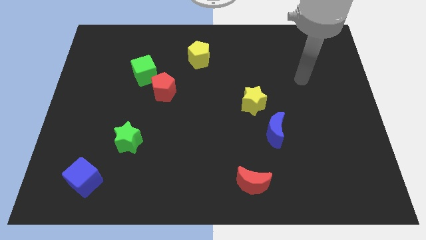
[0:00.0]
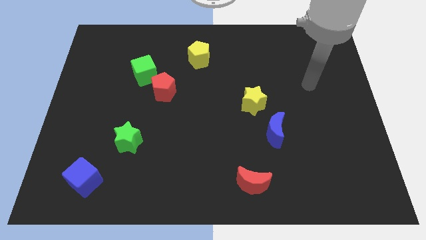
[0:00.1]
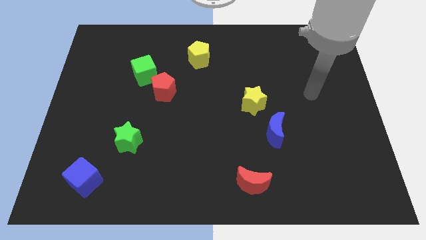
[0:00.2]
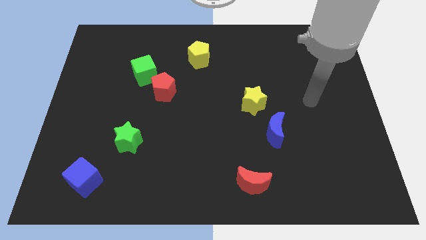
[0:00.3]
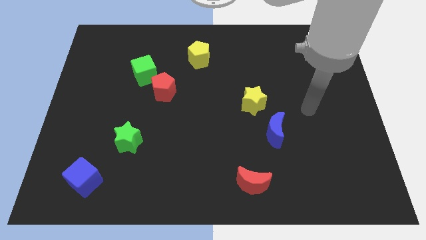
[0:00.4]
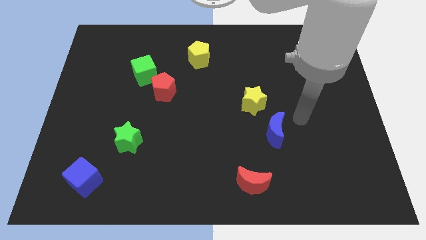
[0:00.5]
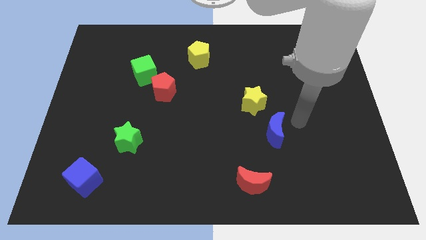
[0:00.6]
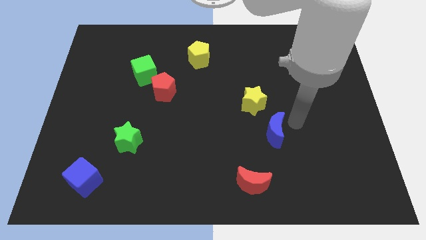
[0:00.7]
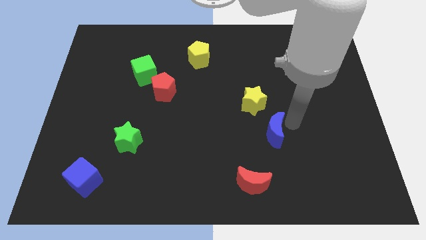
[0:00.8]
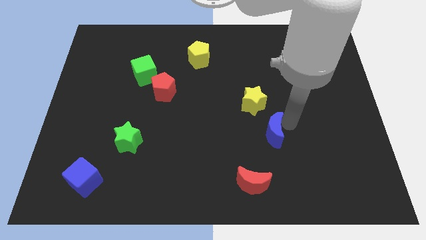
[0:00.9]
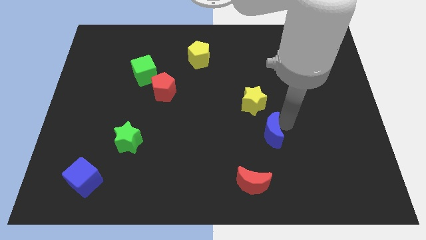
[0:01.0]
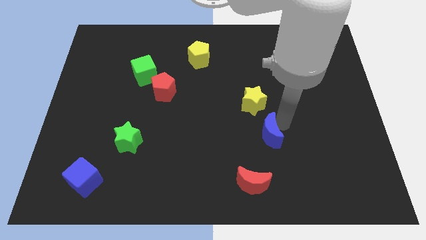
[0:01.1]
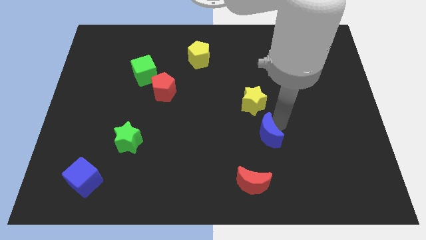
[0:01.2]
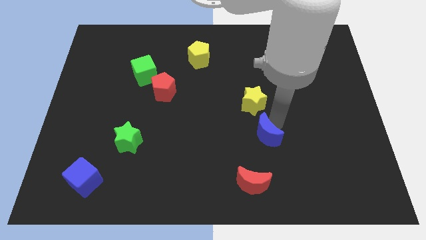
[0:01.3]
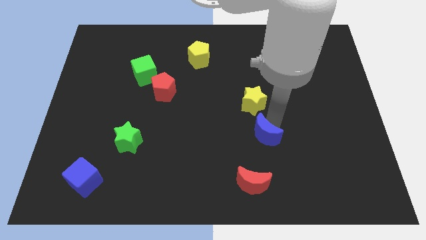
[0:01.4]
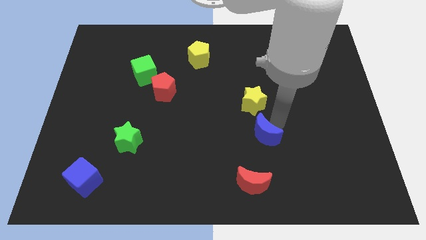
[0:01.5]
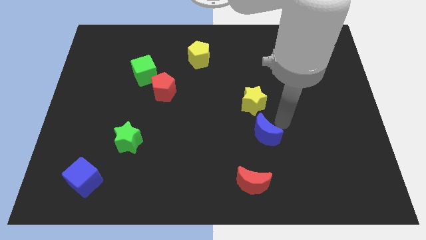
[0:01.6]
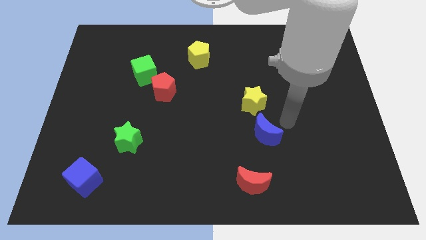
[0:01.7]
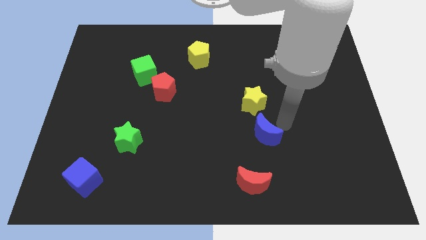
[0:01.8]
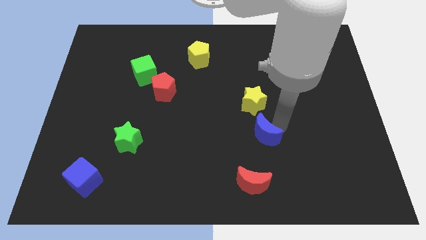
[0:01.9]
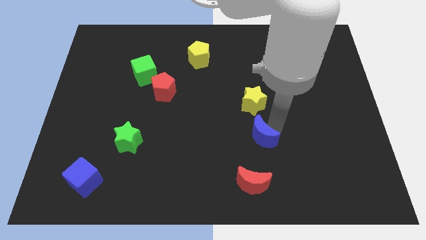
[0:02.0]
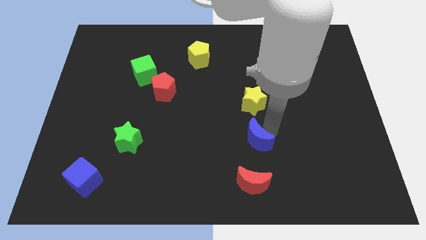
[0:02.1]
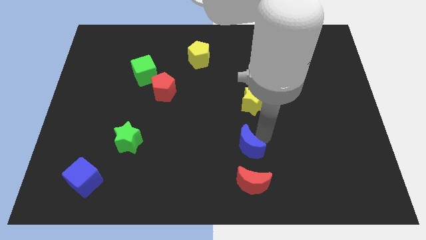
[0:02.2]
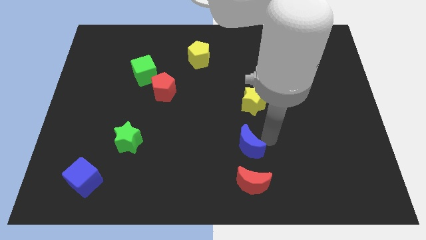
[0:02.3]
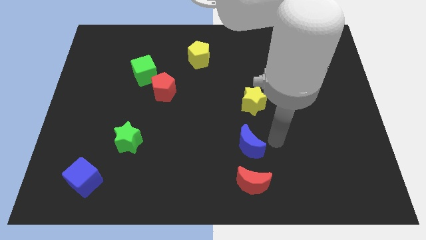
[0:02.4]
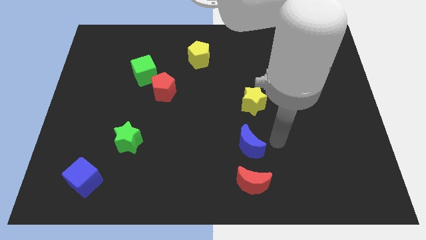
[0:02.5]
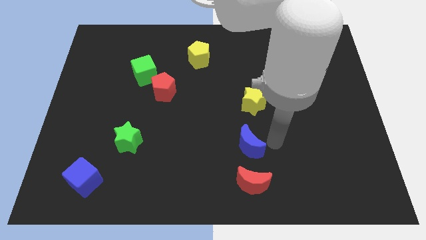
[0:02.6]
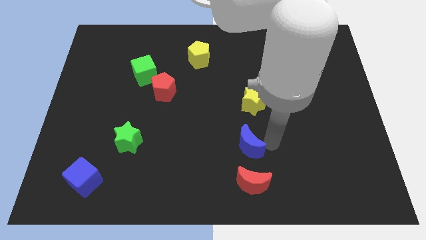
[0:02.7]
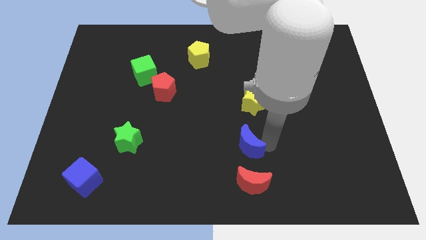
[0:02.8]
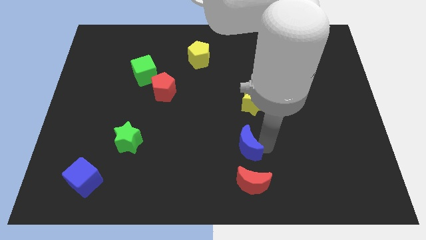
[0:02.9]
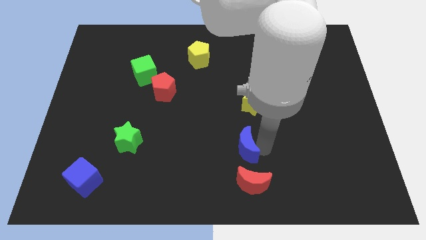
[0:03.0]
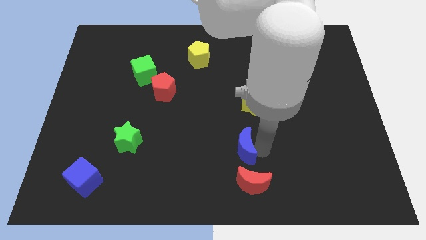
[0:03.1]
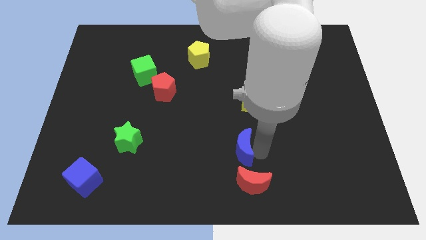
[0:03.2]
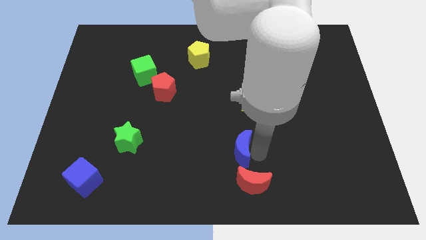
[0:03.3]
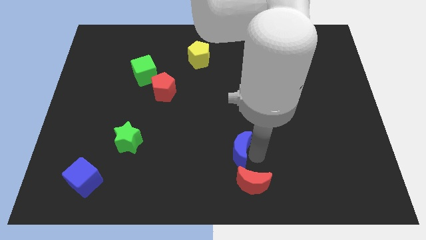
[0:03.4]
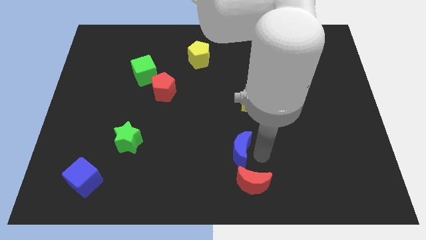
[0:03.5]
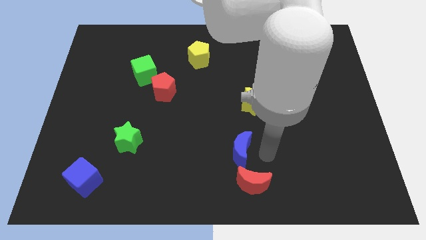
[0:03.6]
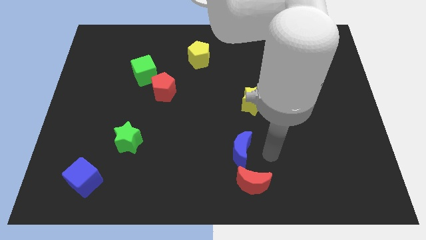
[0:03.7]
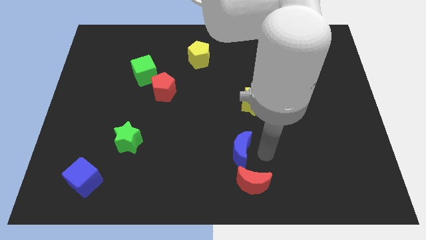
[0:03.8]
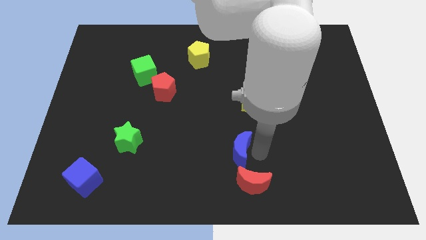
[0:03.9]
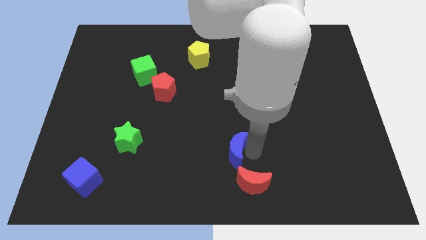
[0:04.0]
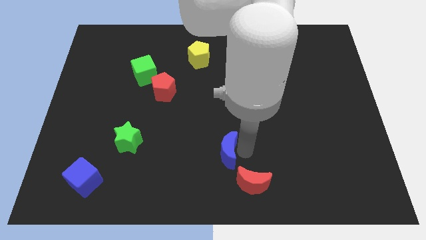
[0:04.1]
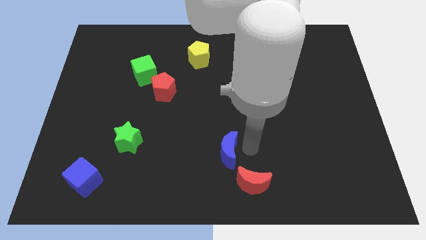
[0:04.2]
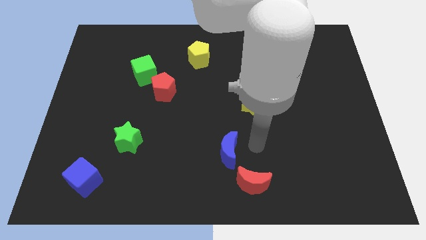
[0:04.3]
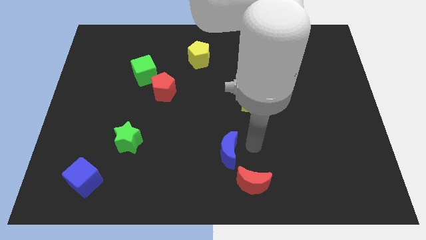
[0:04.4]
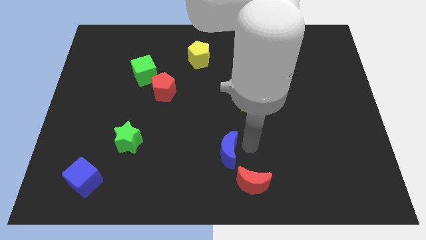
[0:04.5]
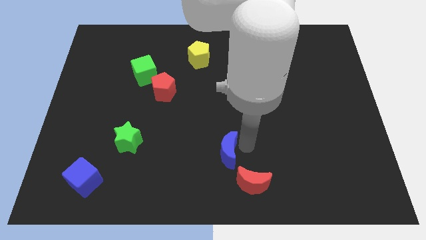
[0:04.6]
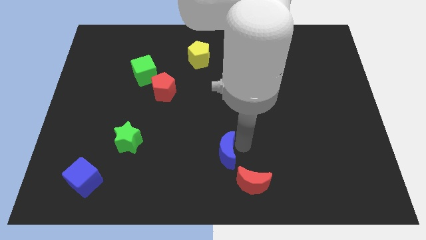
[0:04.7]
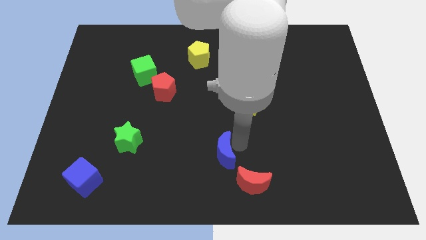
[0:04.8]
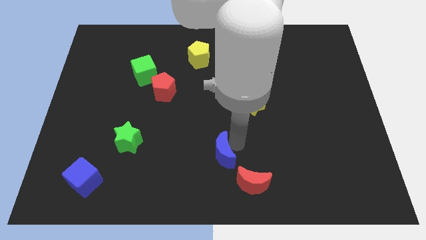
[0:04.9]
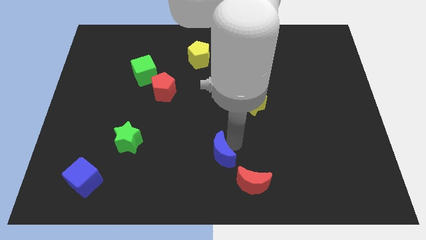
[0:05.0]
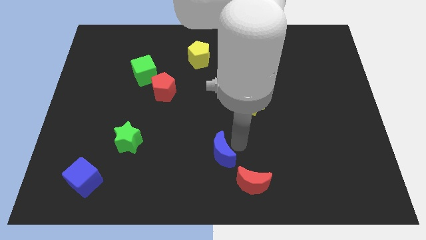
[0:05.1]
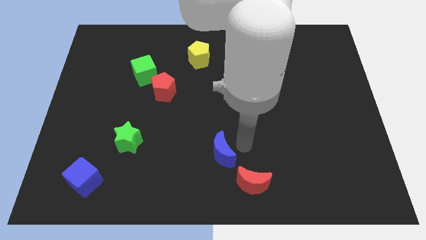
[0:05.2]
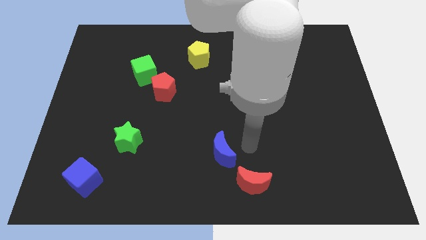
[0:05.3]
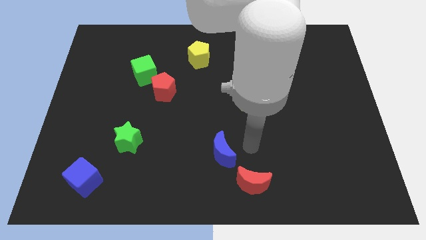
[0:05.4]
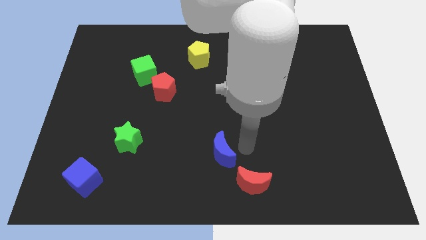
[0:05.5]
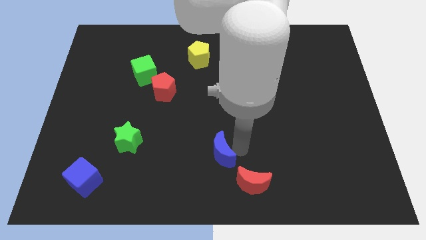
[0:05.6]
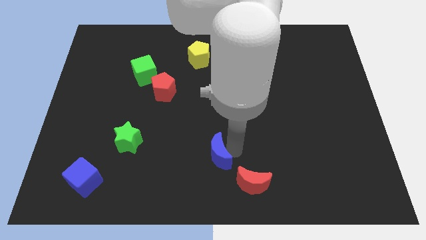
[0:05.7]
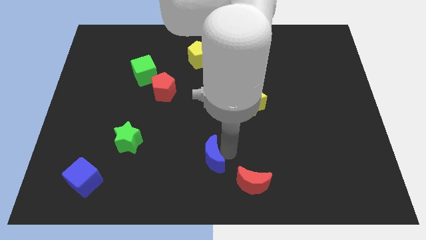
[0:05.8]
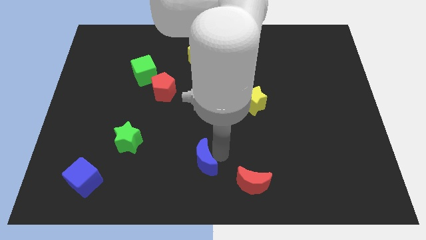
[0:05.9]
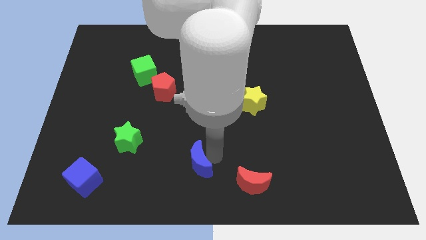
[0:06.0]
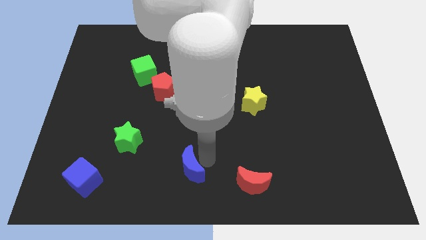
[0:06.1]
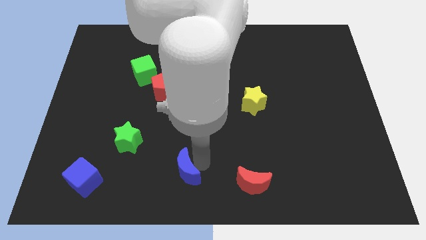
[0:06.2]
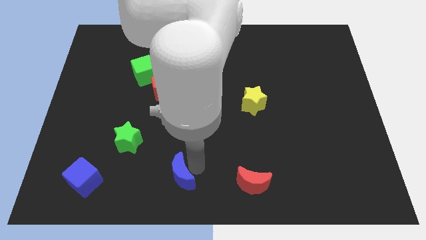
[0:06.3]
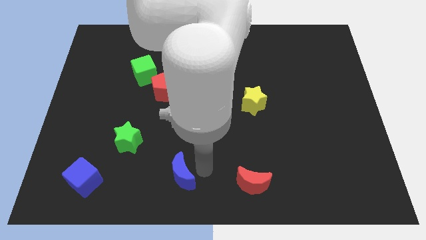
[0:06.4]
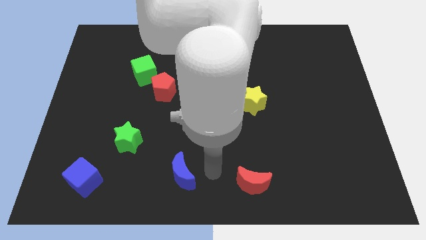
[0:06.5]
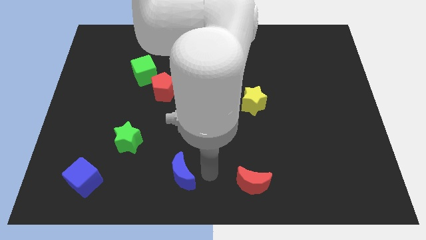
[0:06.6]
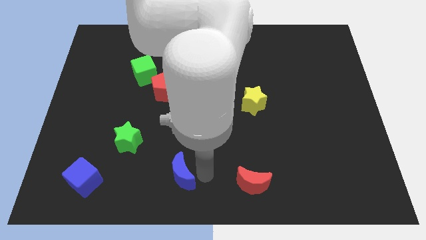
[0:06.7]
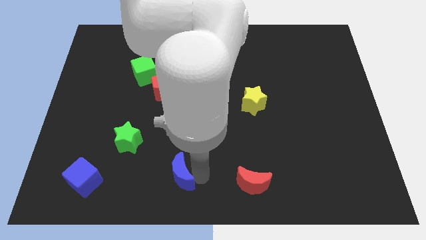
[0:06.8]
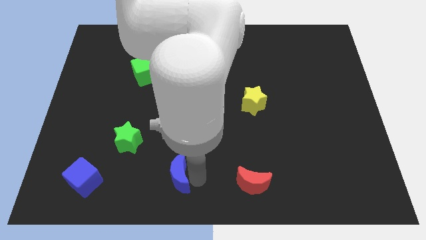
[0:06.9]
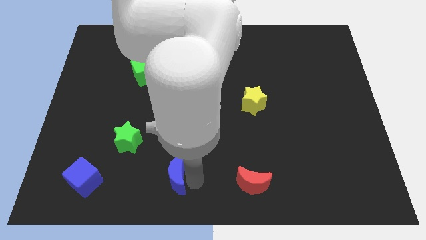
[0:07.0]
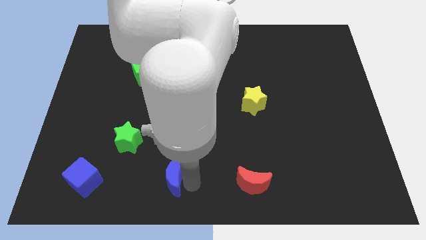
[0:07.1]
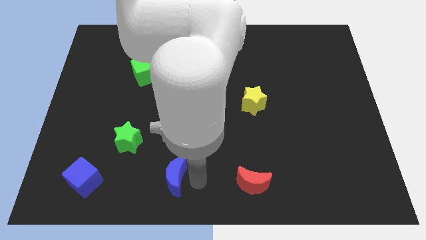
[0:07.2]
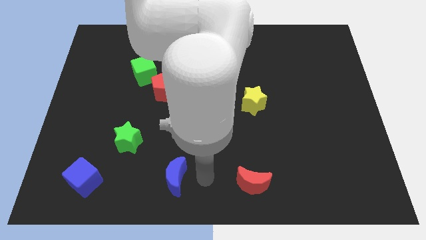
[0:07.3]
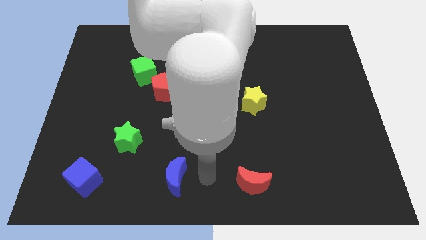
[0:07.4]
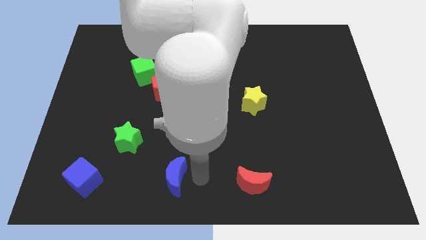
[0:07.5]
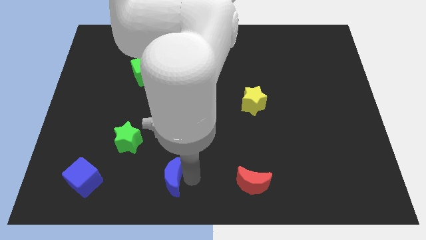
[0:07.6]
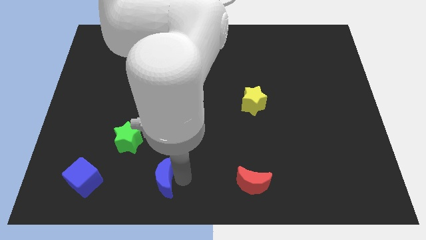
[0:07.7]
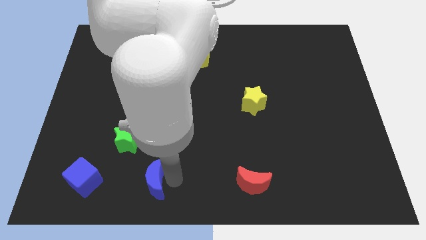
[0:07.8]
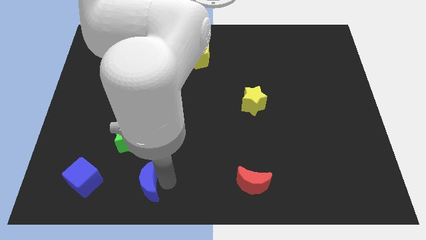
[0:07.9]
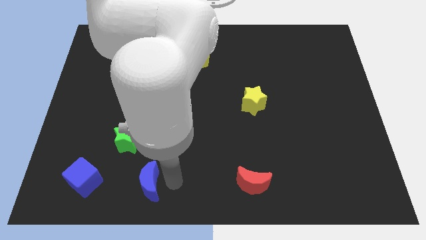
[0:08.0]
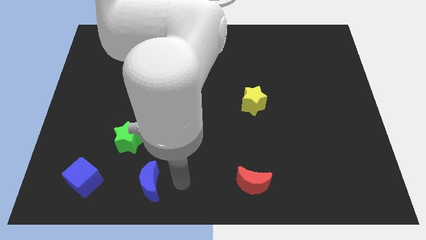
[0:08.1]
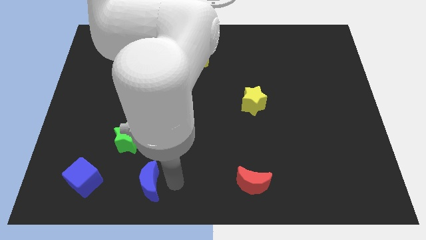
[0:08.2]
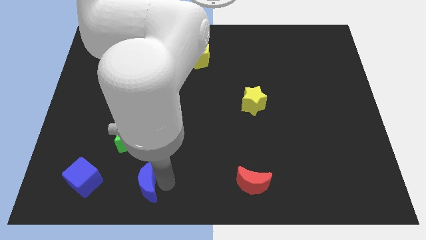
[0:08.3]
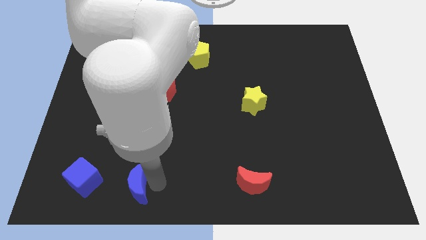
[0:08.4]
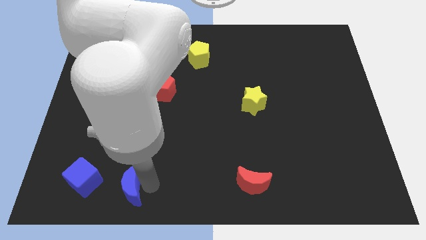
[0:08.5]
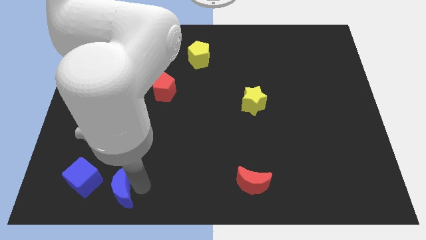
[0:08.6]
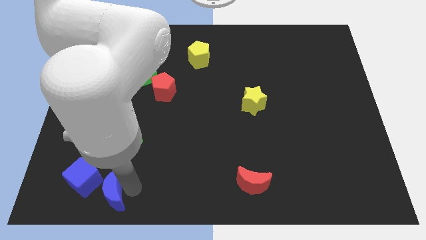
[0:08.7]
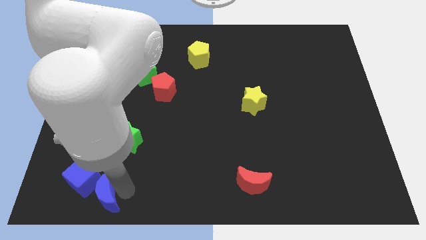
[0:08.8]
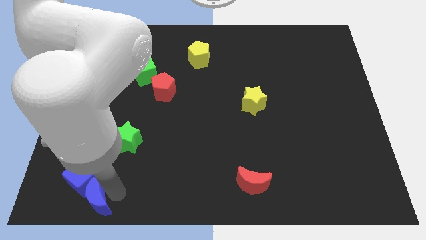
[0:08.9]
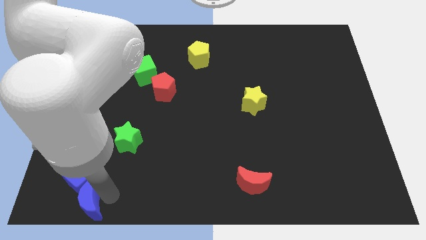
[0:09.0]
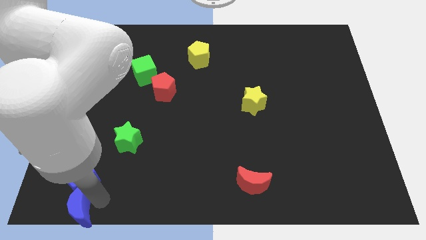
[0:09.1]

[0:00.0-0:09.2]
slide the blue moon to the lower left corner
